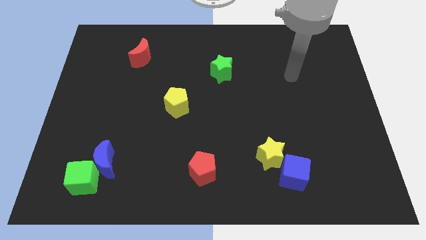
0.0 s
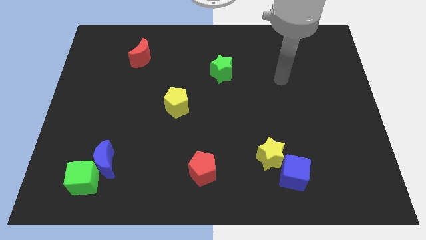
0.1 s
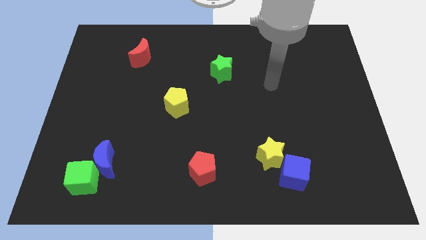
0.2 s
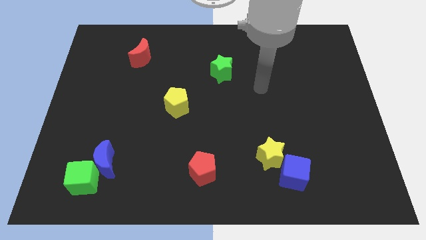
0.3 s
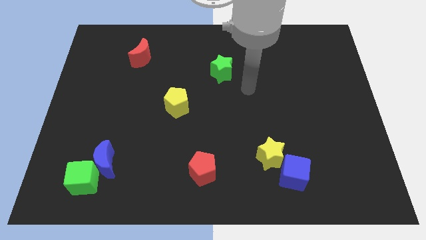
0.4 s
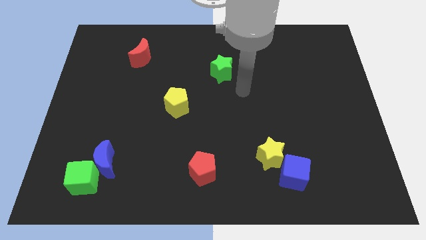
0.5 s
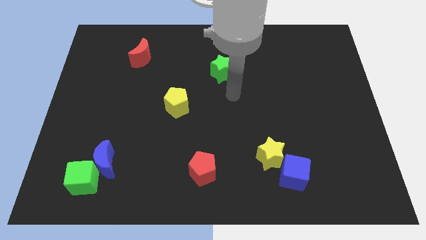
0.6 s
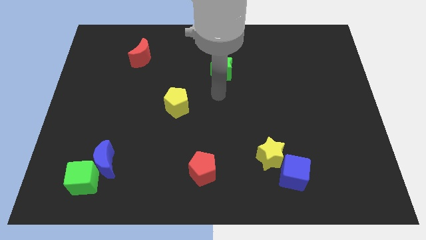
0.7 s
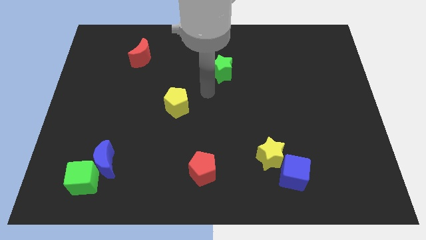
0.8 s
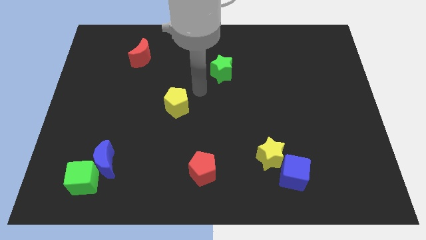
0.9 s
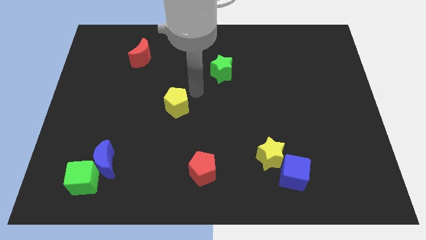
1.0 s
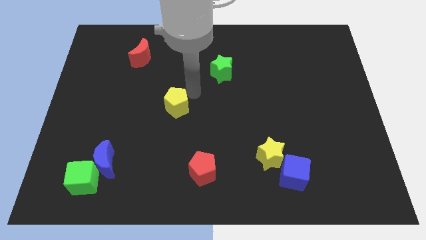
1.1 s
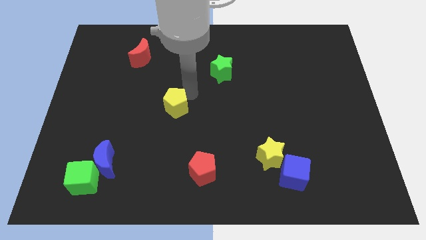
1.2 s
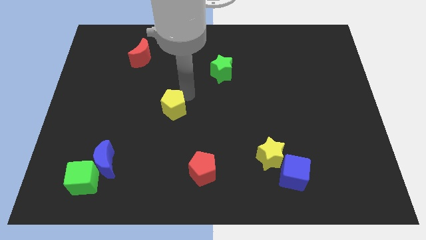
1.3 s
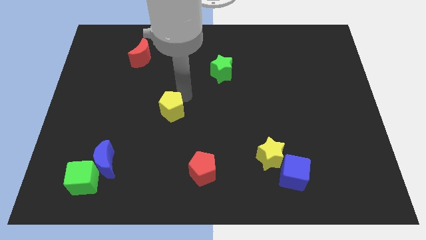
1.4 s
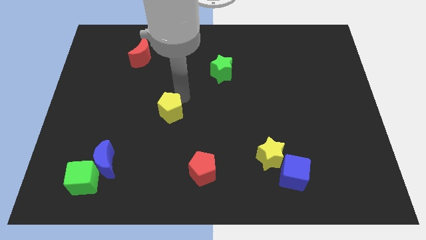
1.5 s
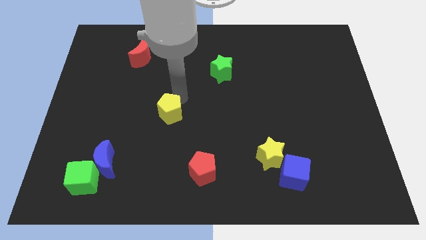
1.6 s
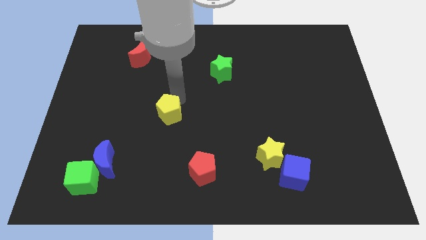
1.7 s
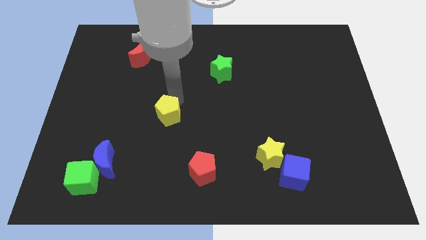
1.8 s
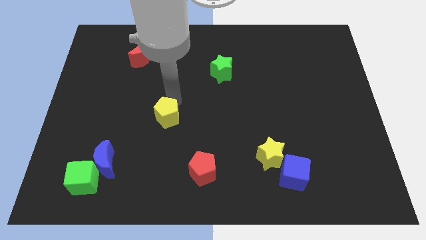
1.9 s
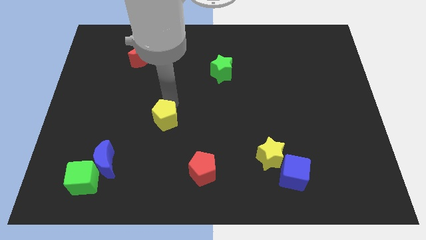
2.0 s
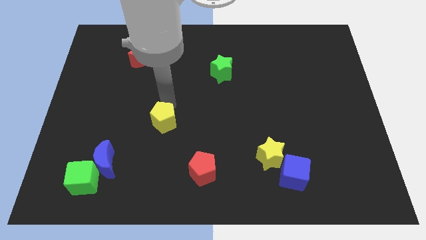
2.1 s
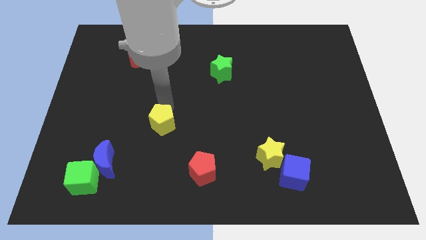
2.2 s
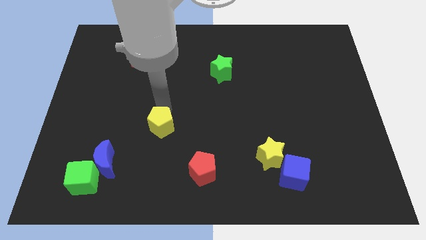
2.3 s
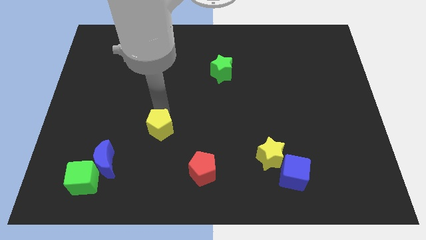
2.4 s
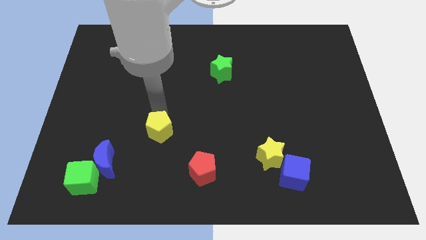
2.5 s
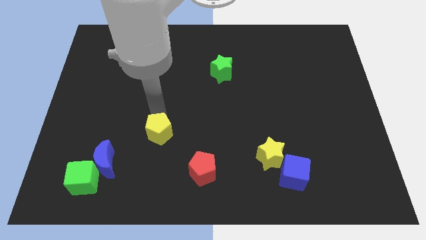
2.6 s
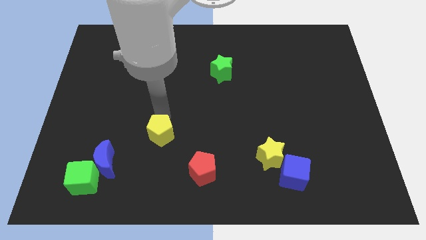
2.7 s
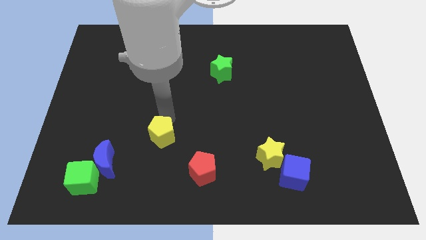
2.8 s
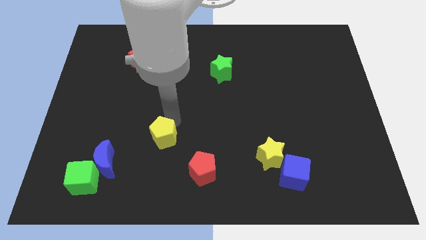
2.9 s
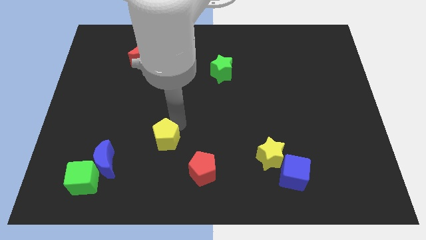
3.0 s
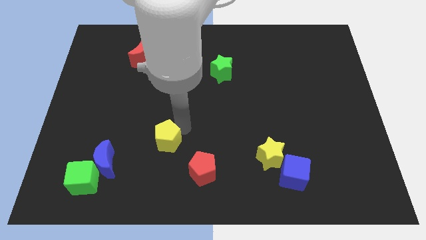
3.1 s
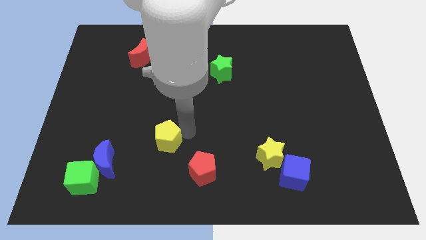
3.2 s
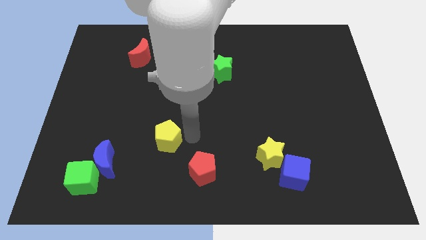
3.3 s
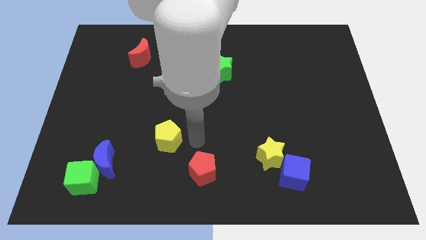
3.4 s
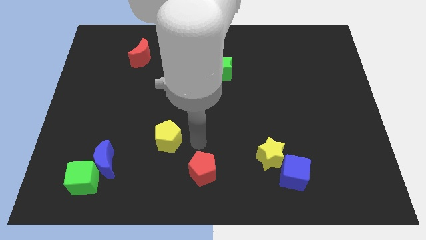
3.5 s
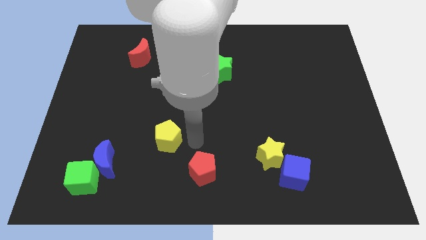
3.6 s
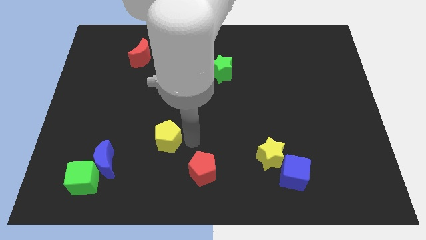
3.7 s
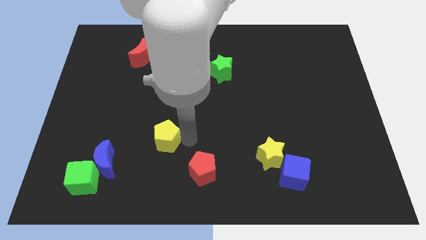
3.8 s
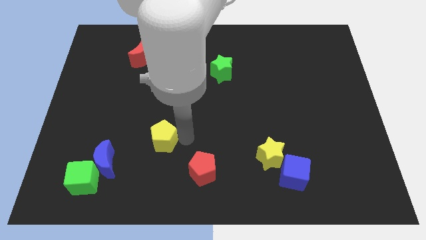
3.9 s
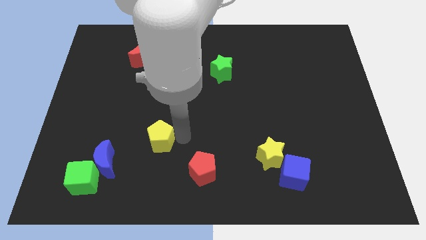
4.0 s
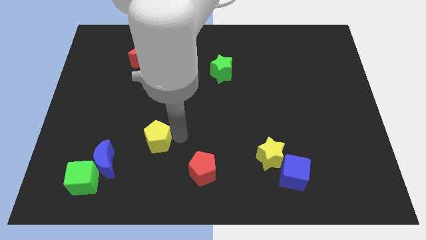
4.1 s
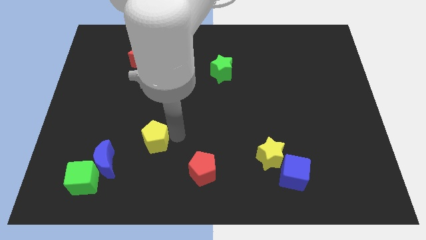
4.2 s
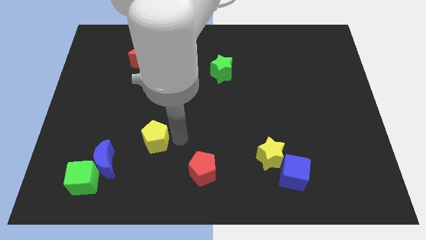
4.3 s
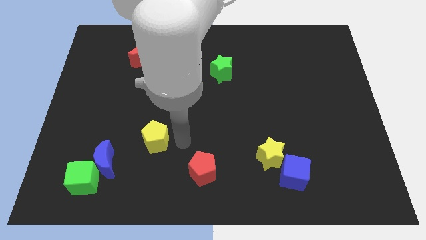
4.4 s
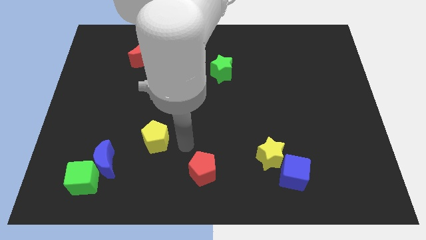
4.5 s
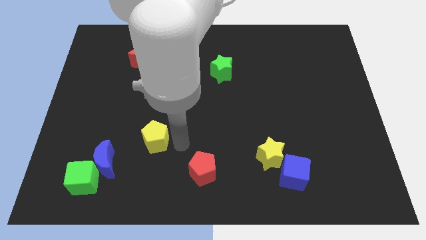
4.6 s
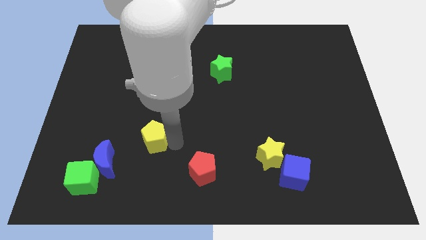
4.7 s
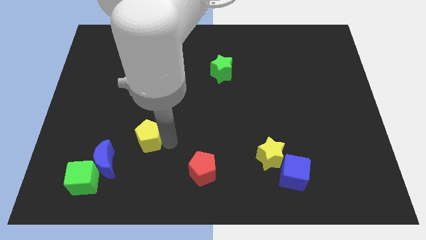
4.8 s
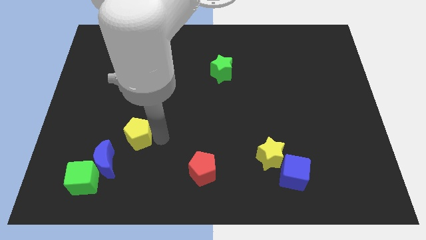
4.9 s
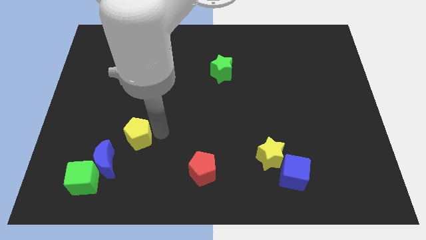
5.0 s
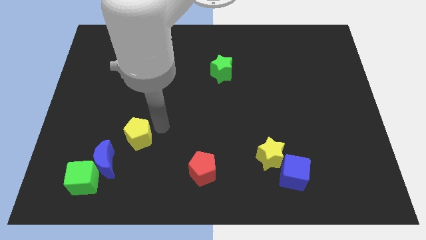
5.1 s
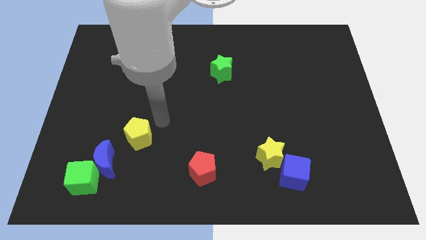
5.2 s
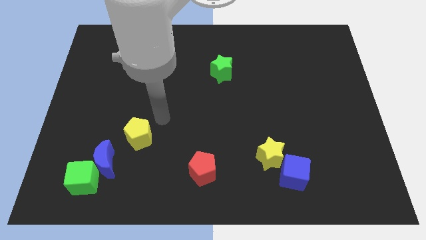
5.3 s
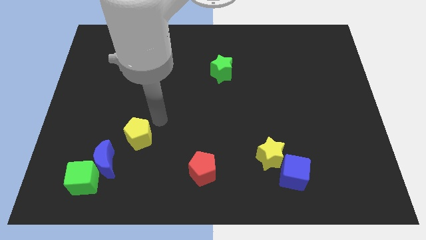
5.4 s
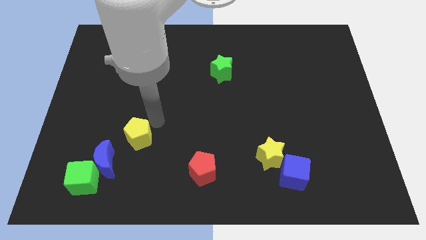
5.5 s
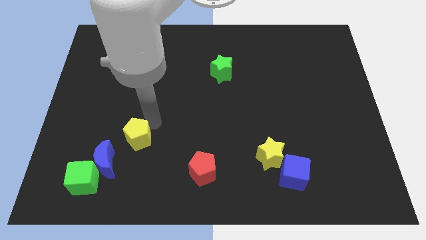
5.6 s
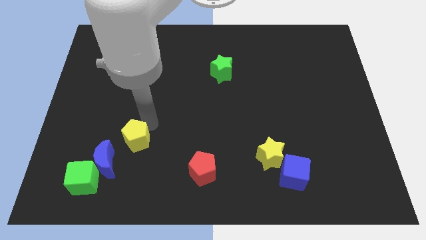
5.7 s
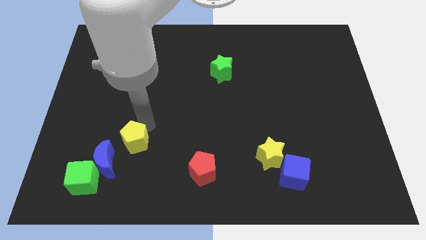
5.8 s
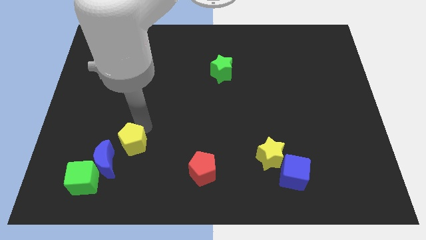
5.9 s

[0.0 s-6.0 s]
move the yellow pentagon to the top right of the green cube

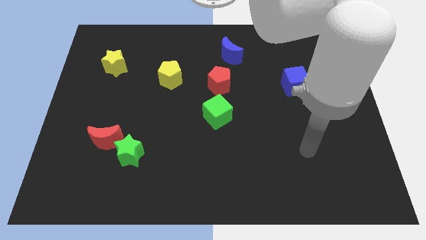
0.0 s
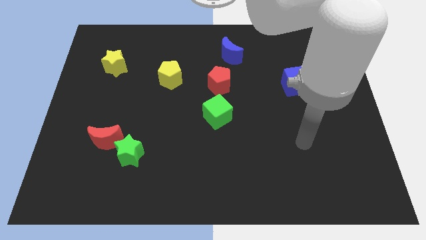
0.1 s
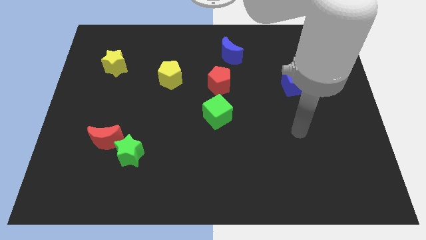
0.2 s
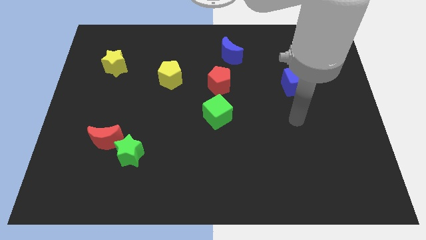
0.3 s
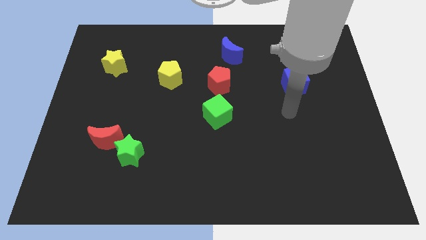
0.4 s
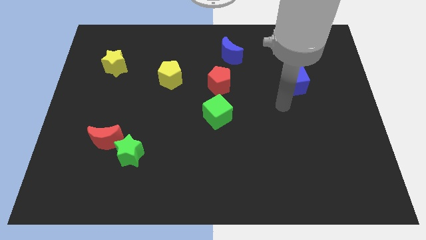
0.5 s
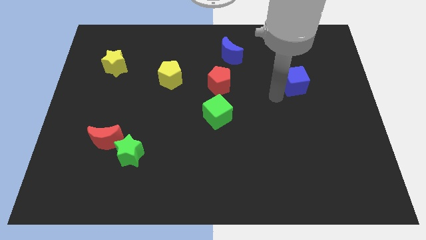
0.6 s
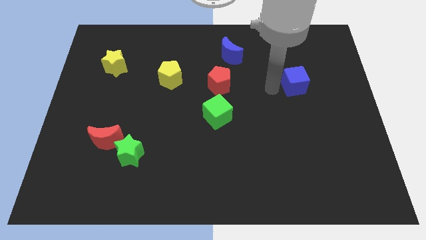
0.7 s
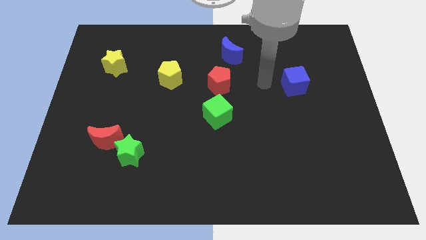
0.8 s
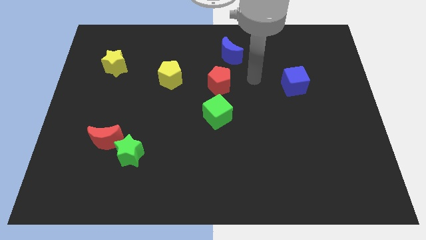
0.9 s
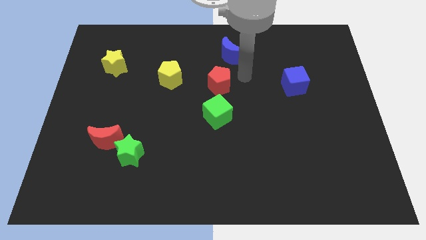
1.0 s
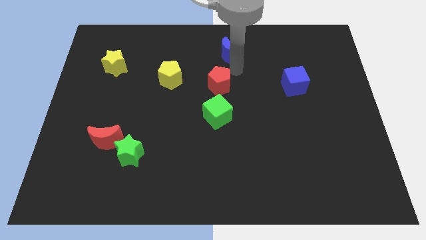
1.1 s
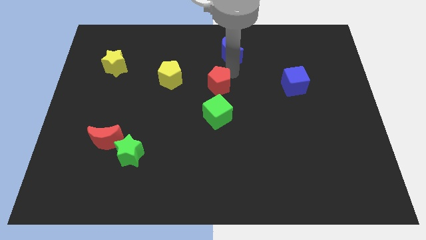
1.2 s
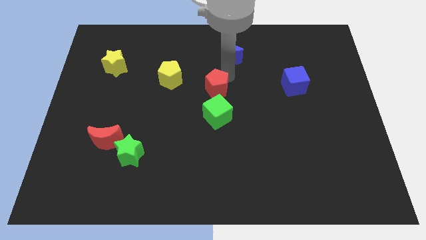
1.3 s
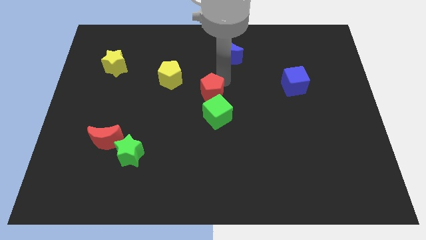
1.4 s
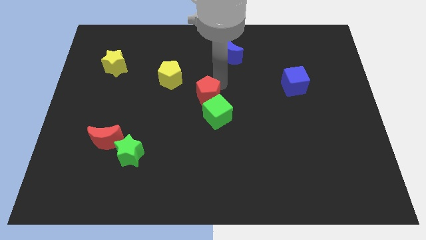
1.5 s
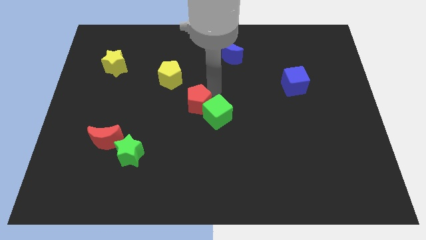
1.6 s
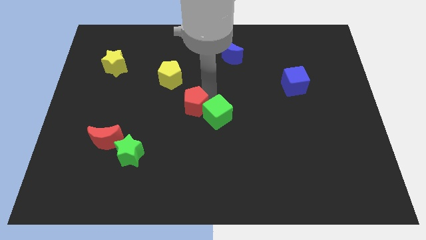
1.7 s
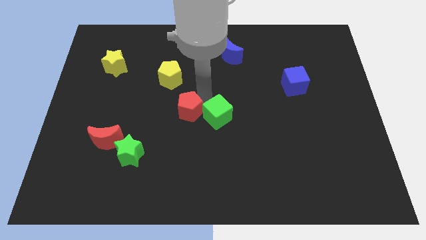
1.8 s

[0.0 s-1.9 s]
put the red pentagon below the yellow pentagon
